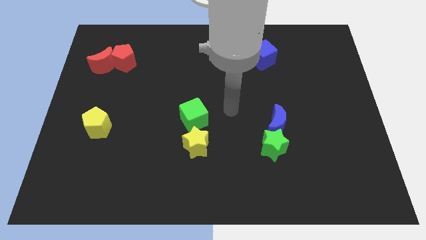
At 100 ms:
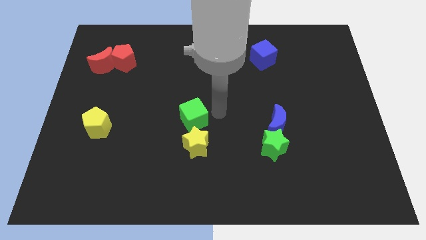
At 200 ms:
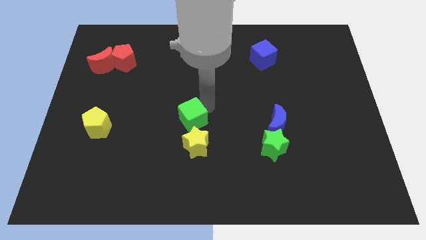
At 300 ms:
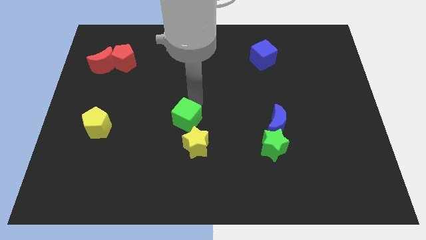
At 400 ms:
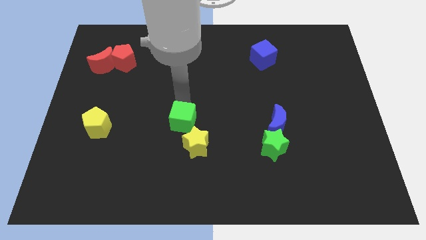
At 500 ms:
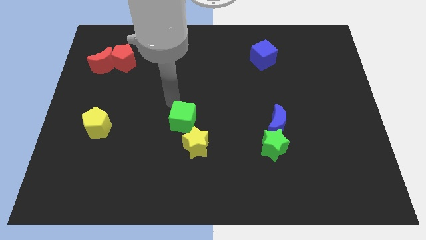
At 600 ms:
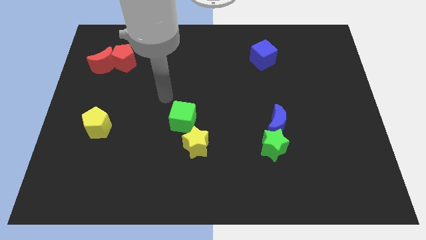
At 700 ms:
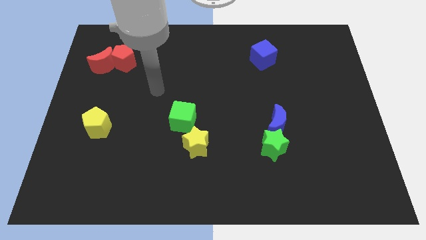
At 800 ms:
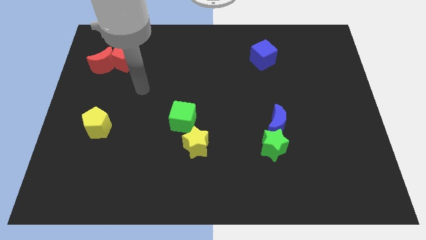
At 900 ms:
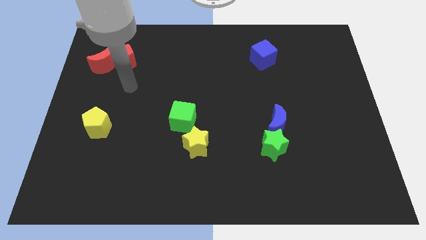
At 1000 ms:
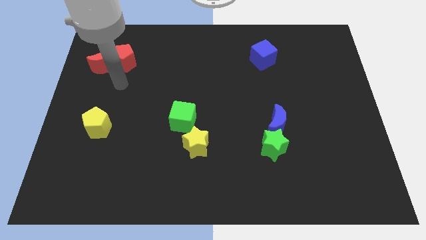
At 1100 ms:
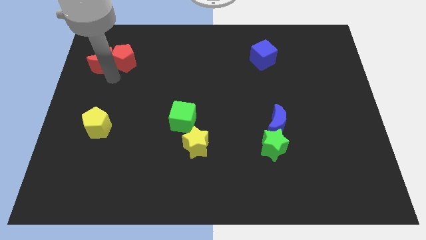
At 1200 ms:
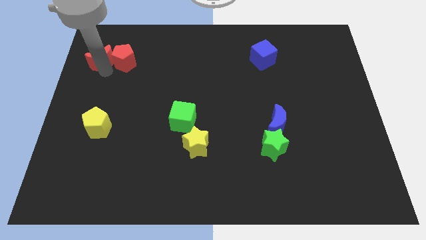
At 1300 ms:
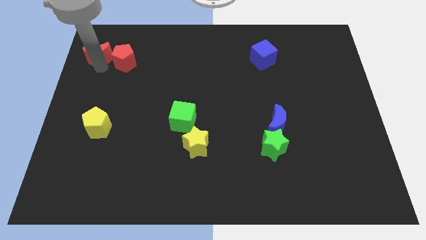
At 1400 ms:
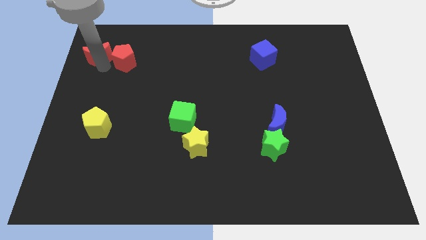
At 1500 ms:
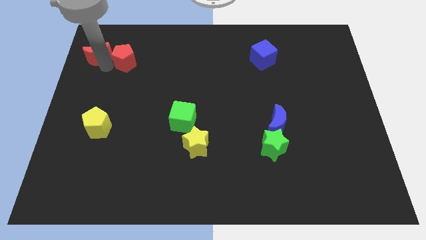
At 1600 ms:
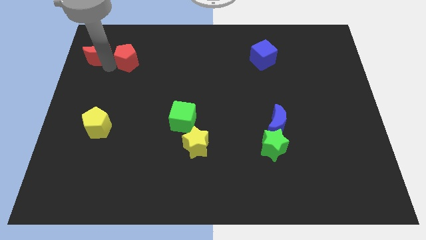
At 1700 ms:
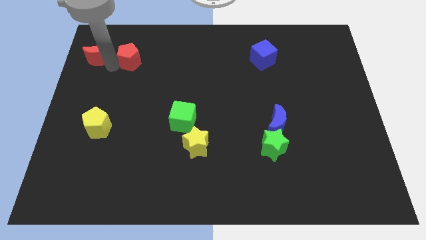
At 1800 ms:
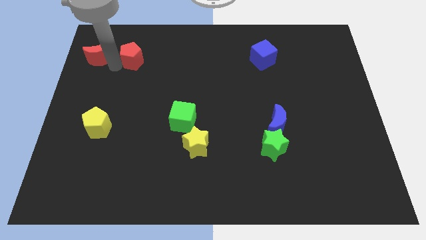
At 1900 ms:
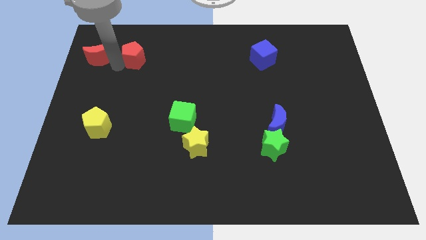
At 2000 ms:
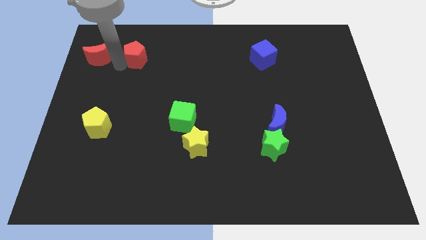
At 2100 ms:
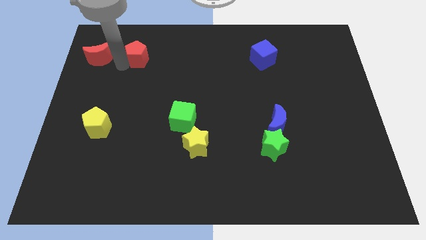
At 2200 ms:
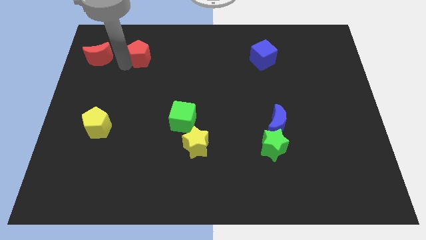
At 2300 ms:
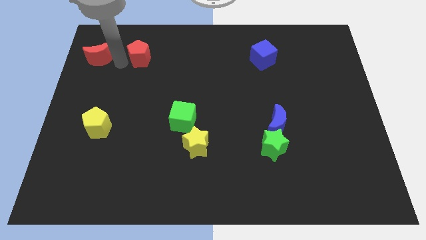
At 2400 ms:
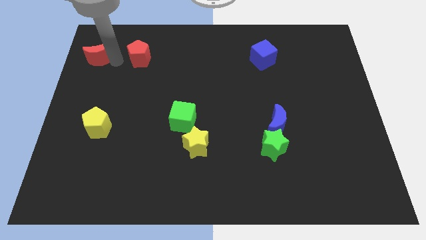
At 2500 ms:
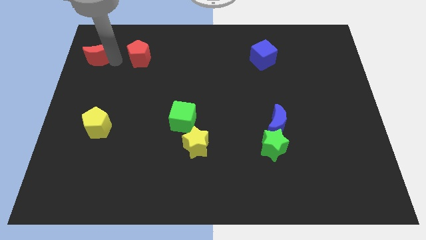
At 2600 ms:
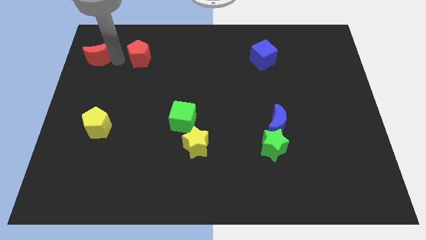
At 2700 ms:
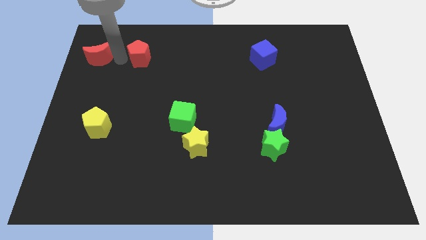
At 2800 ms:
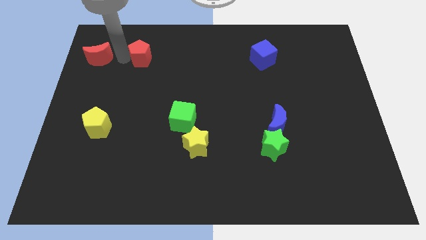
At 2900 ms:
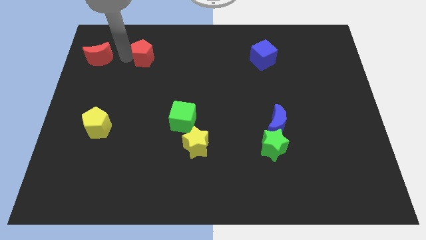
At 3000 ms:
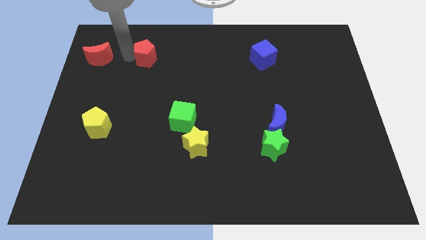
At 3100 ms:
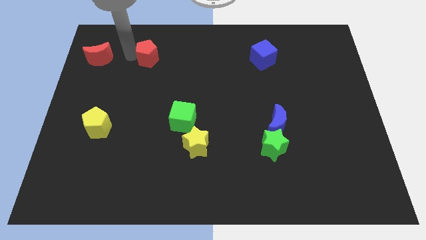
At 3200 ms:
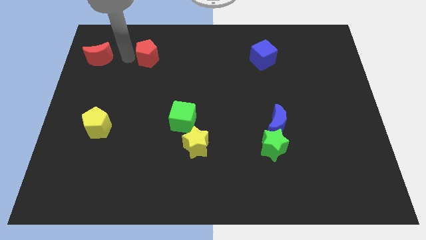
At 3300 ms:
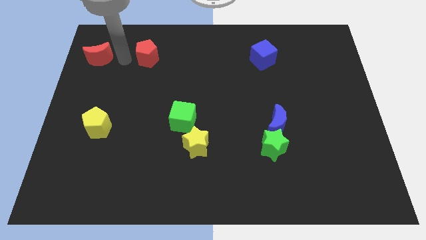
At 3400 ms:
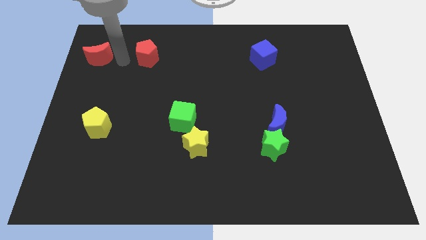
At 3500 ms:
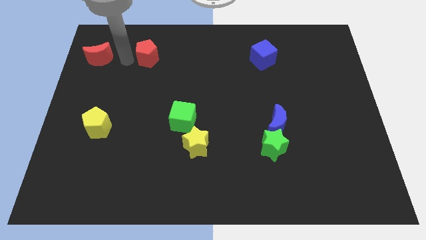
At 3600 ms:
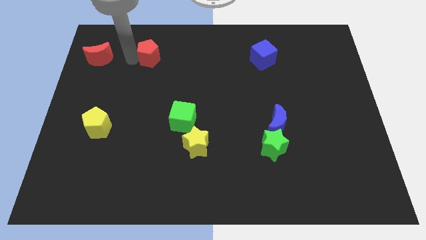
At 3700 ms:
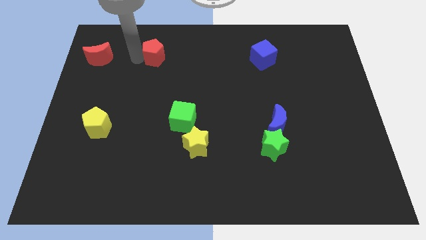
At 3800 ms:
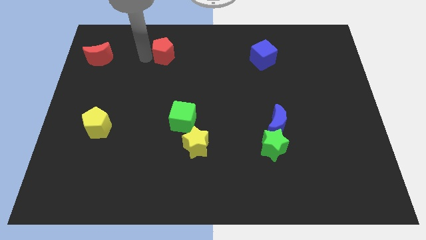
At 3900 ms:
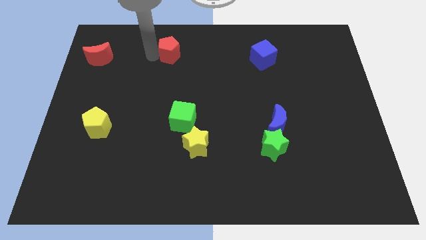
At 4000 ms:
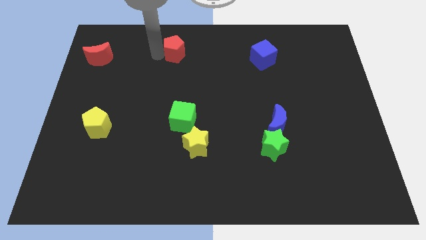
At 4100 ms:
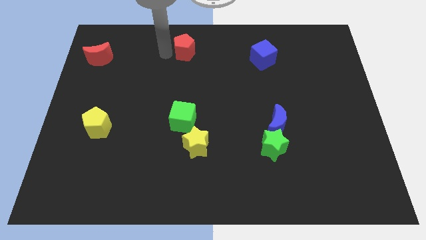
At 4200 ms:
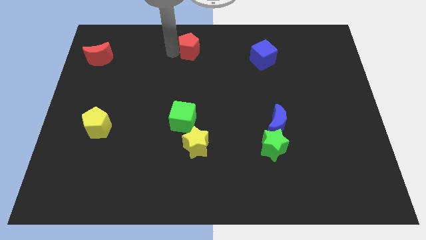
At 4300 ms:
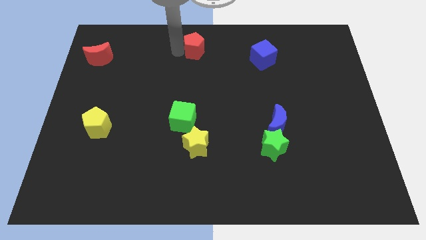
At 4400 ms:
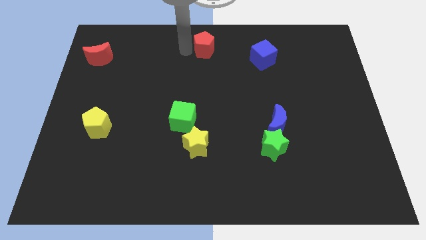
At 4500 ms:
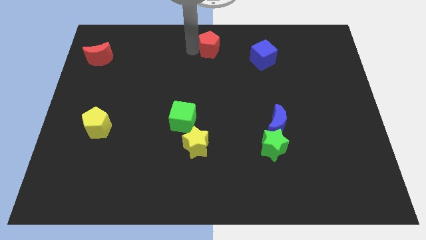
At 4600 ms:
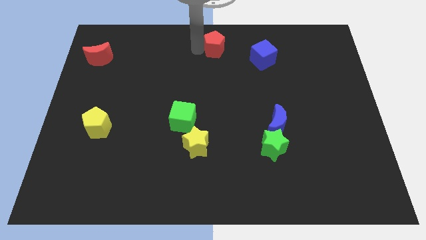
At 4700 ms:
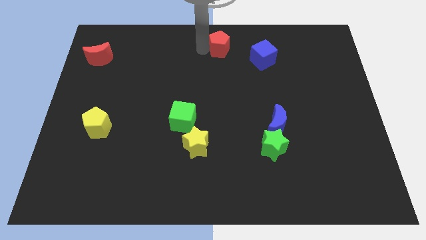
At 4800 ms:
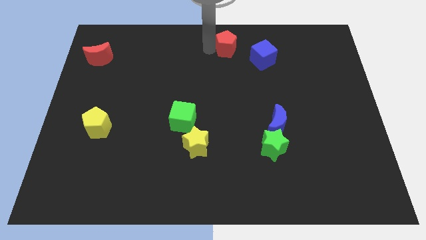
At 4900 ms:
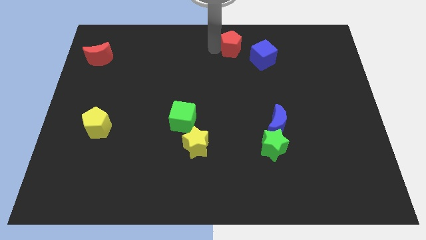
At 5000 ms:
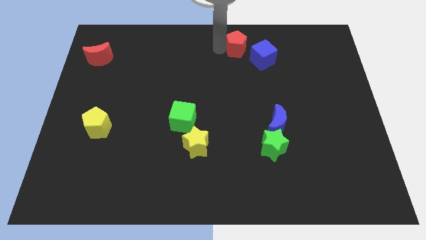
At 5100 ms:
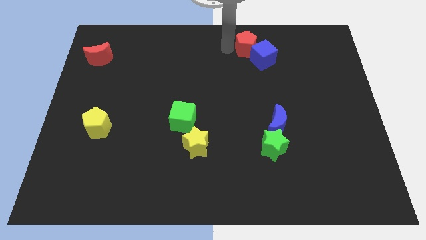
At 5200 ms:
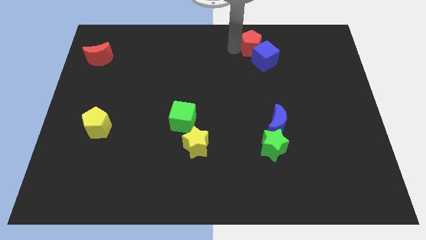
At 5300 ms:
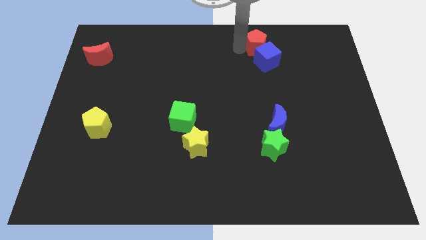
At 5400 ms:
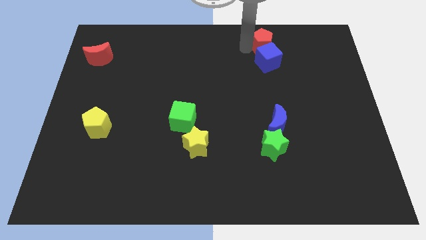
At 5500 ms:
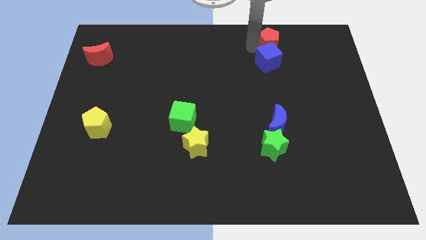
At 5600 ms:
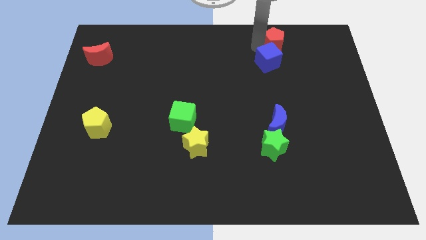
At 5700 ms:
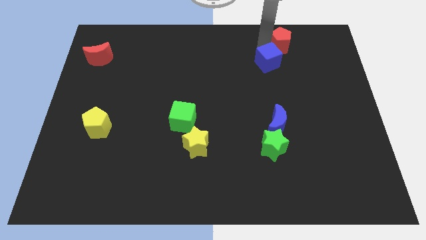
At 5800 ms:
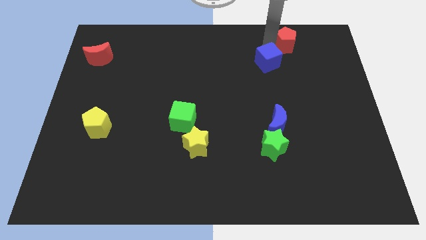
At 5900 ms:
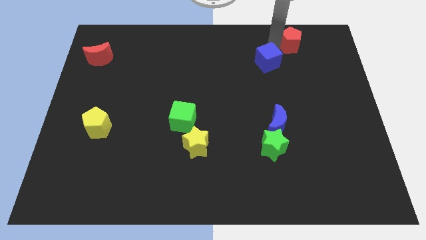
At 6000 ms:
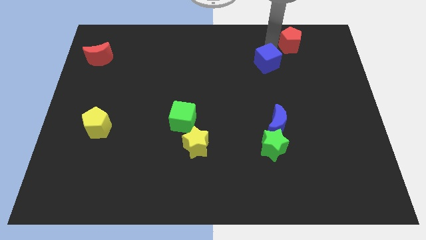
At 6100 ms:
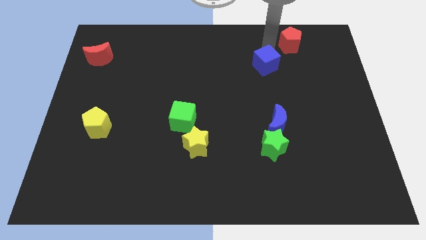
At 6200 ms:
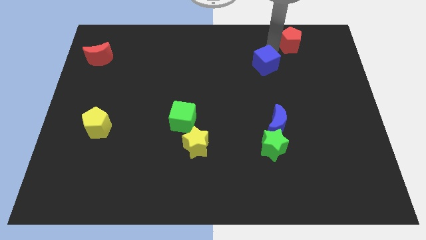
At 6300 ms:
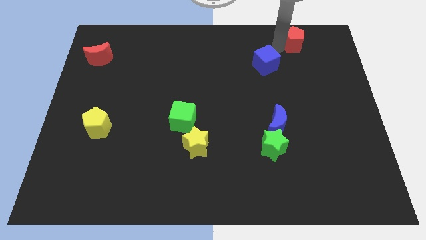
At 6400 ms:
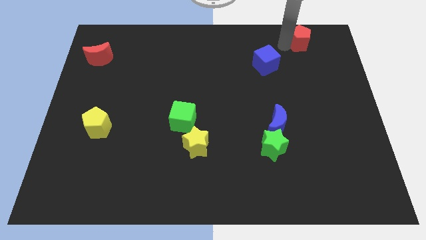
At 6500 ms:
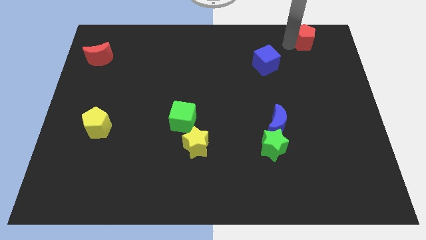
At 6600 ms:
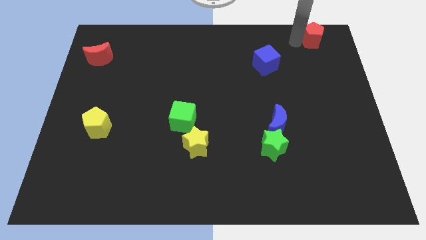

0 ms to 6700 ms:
put the red pentagon to the upper right corner
